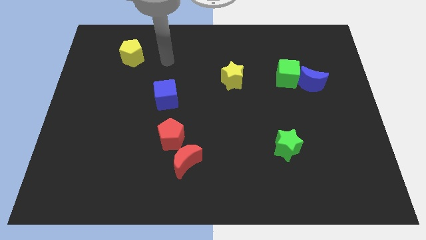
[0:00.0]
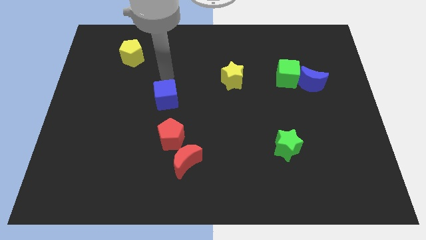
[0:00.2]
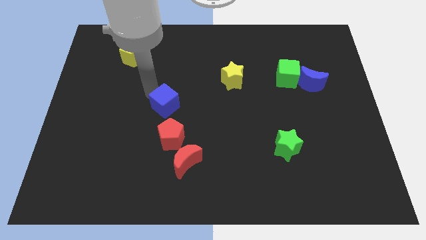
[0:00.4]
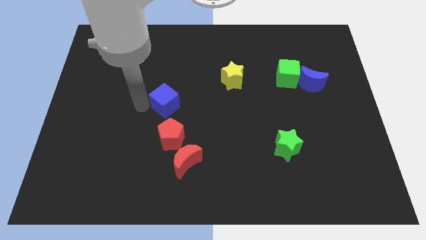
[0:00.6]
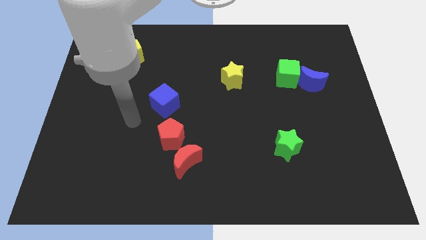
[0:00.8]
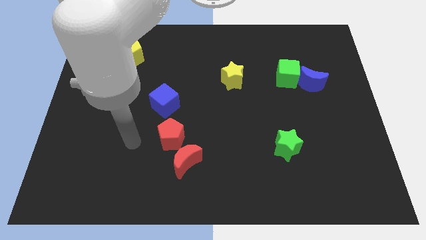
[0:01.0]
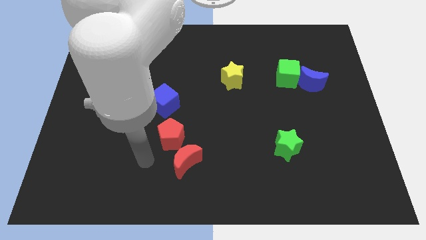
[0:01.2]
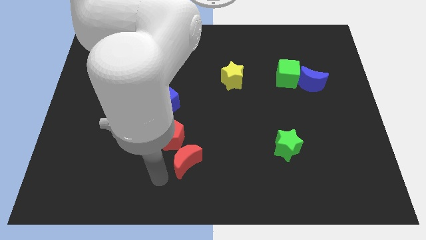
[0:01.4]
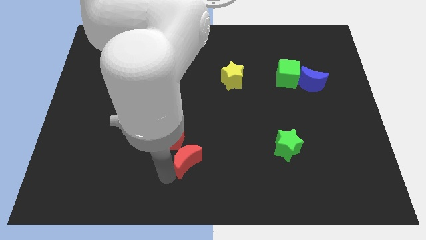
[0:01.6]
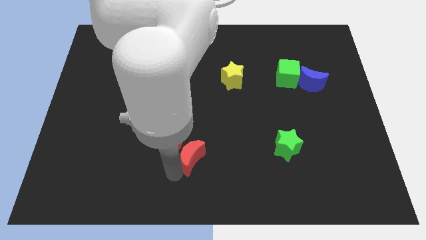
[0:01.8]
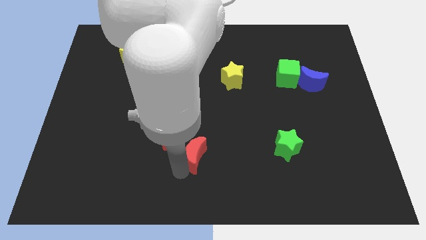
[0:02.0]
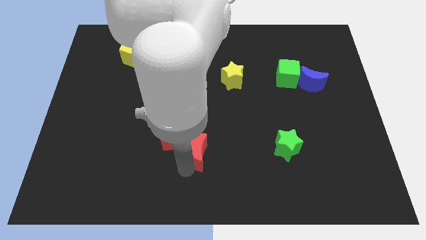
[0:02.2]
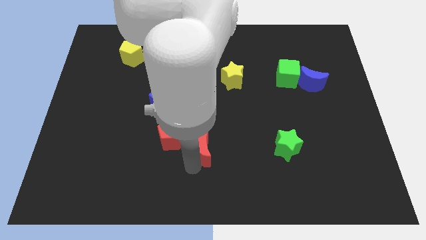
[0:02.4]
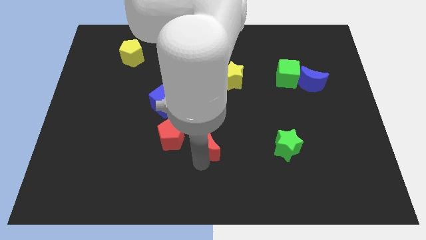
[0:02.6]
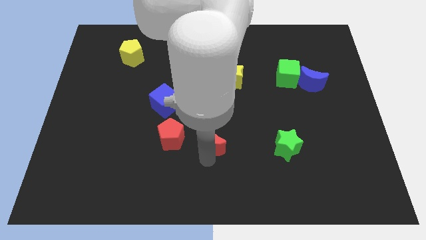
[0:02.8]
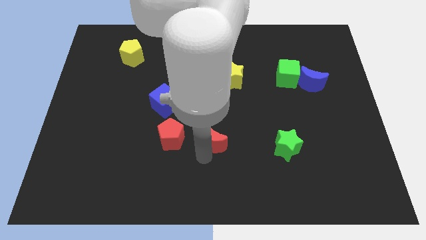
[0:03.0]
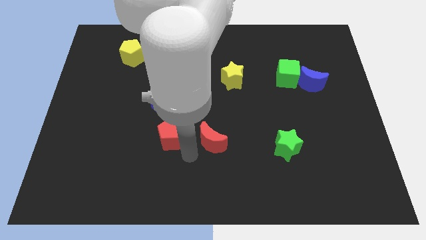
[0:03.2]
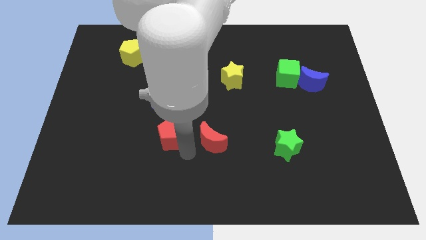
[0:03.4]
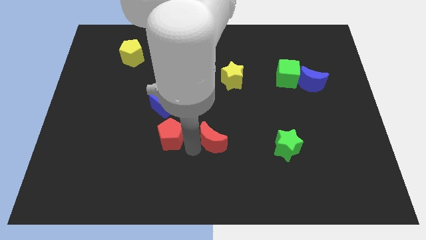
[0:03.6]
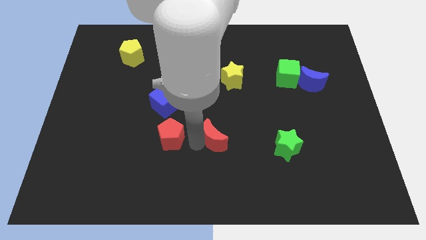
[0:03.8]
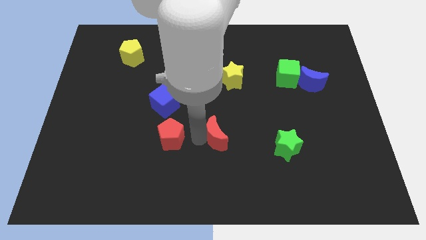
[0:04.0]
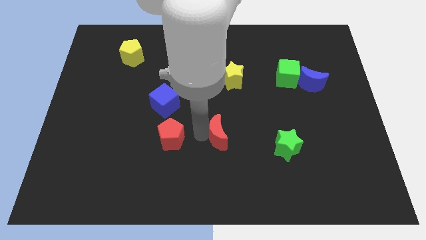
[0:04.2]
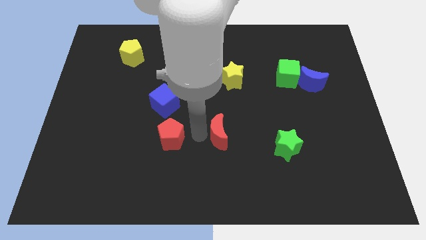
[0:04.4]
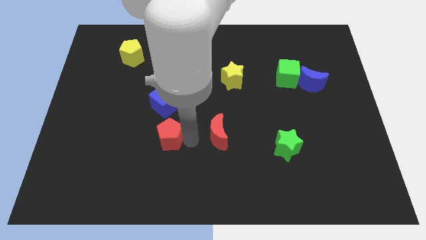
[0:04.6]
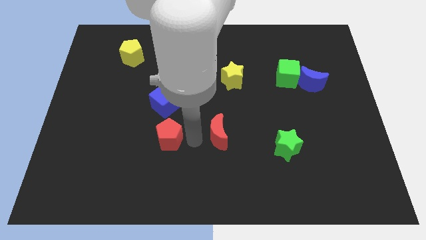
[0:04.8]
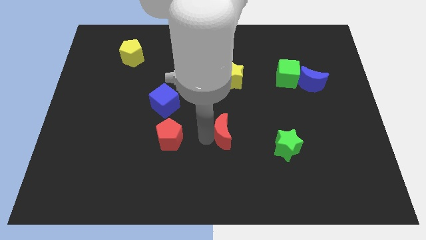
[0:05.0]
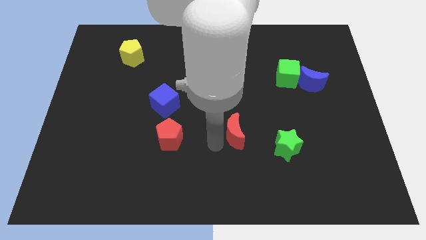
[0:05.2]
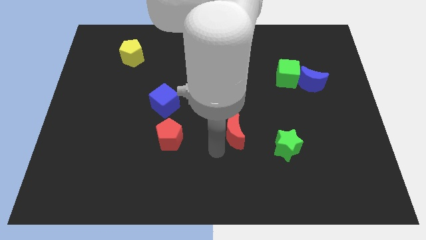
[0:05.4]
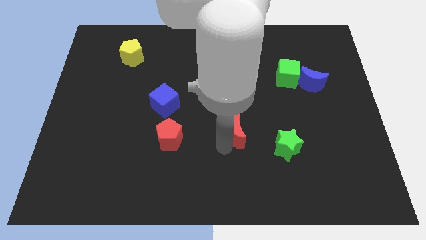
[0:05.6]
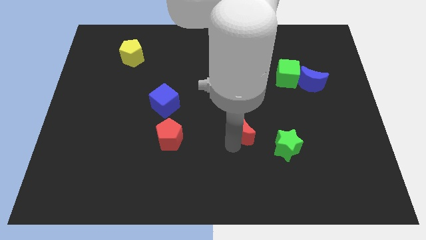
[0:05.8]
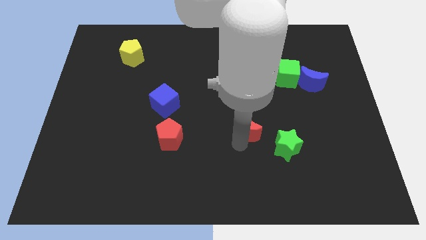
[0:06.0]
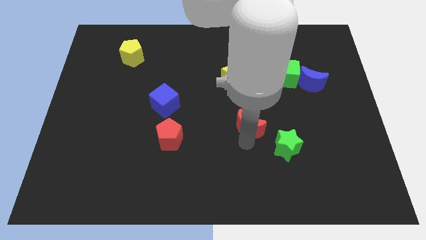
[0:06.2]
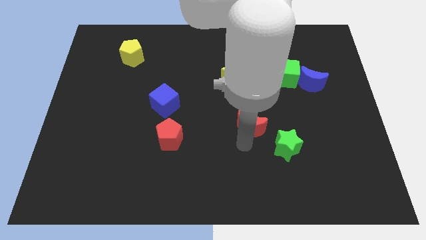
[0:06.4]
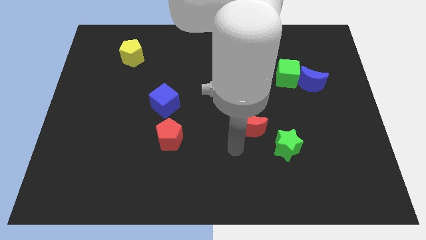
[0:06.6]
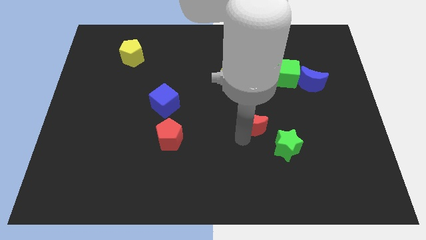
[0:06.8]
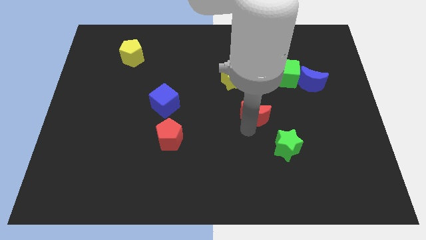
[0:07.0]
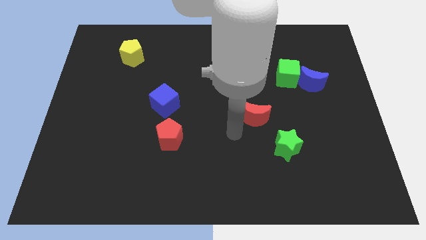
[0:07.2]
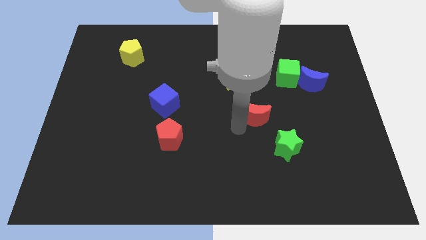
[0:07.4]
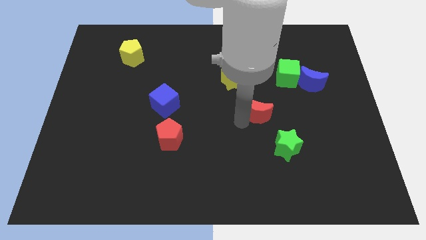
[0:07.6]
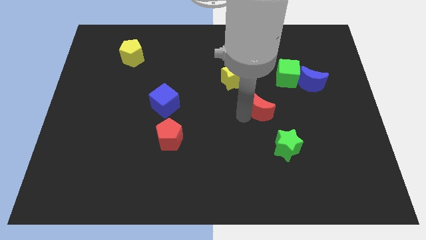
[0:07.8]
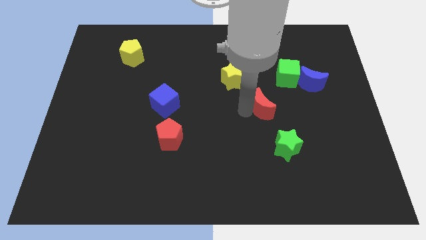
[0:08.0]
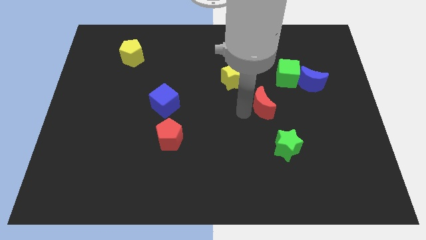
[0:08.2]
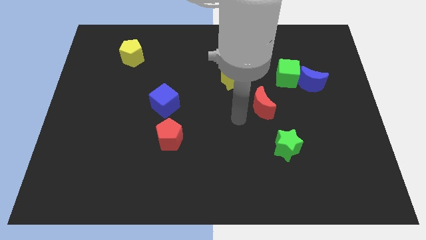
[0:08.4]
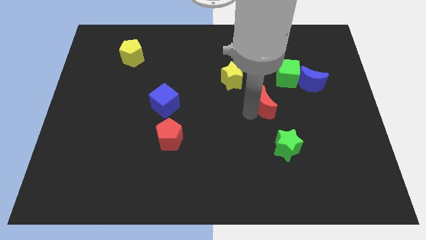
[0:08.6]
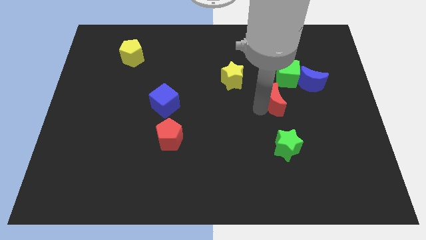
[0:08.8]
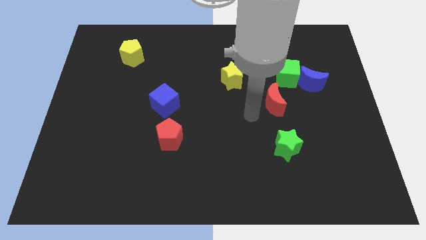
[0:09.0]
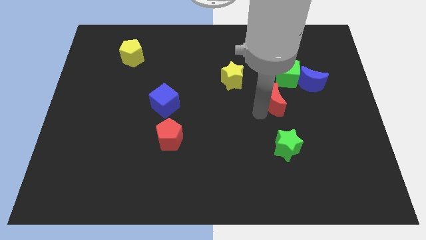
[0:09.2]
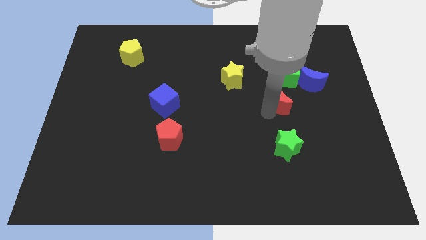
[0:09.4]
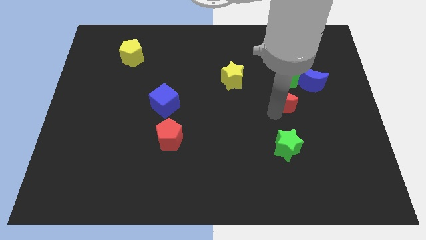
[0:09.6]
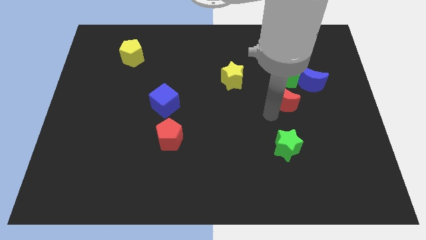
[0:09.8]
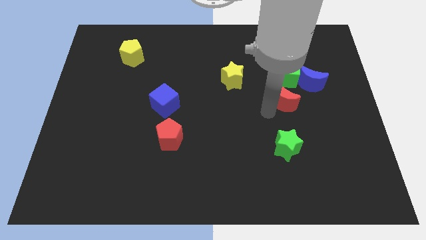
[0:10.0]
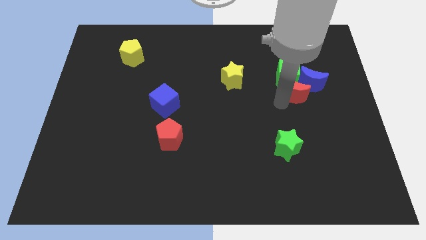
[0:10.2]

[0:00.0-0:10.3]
put the red moon to the blue moon

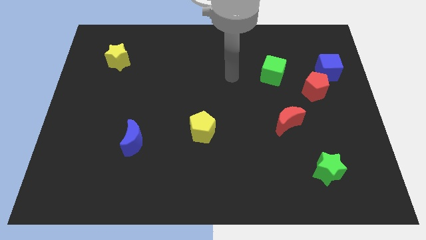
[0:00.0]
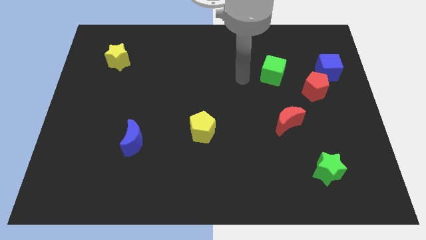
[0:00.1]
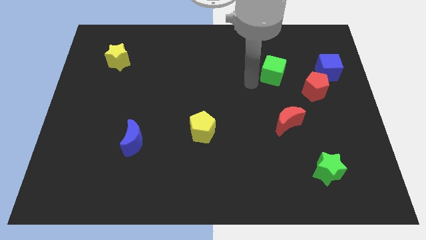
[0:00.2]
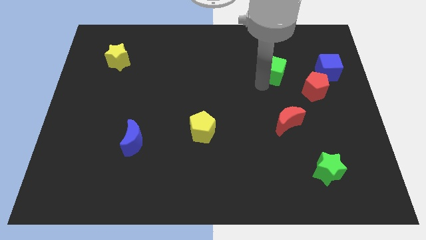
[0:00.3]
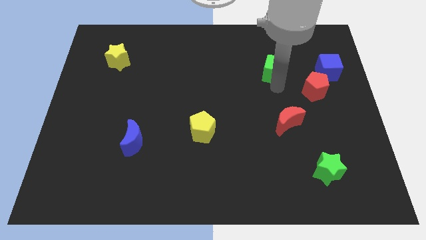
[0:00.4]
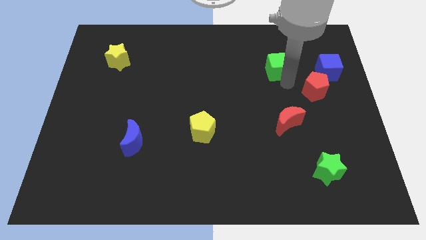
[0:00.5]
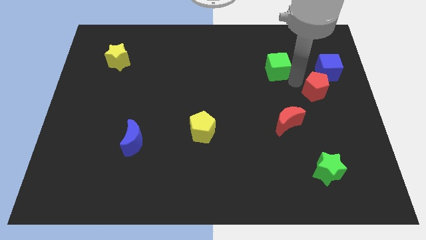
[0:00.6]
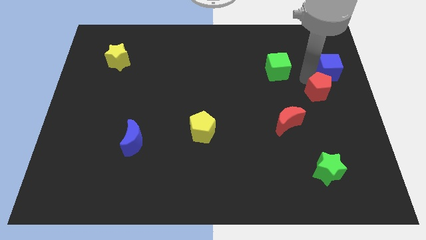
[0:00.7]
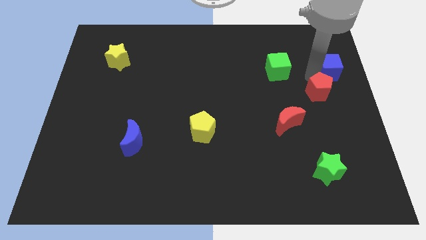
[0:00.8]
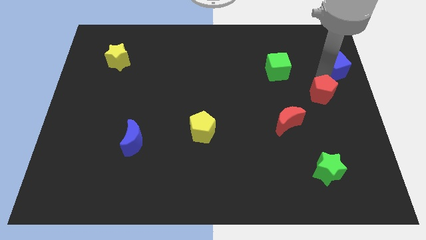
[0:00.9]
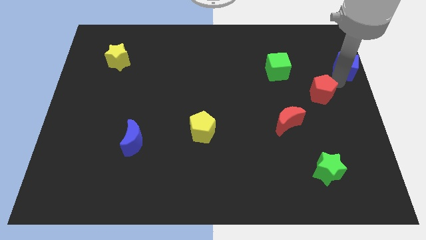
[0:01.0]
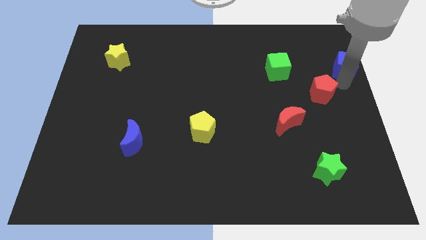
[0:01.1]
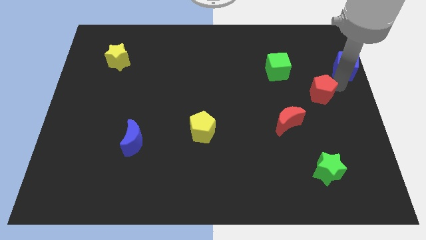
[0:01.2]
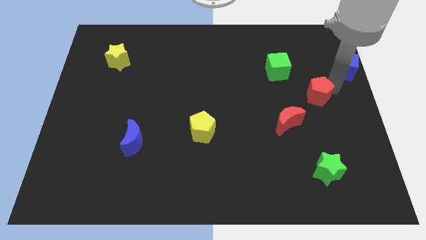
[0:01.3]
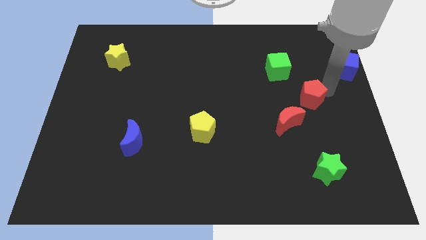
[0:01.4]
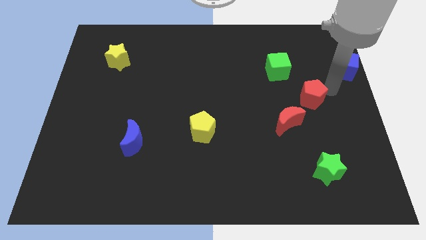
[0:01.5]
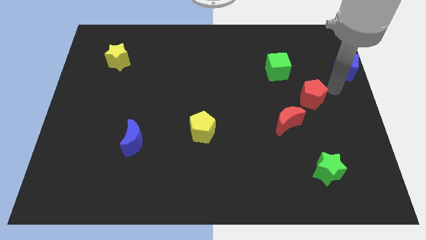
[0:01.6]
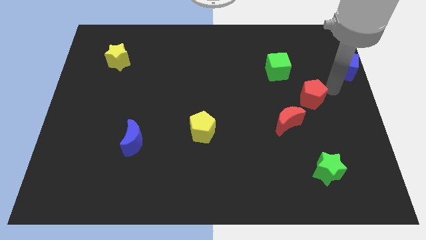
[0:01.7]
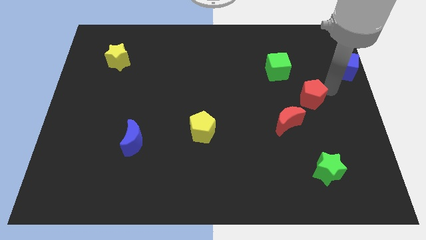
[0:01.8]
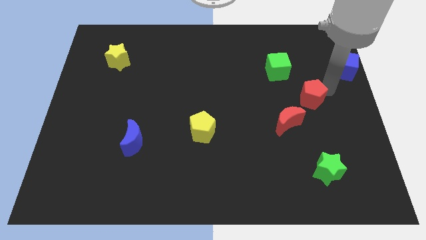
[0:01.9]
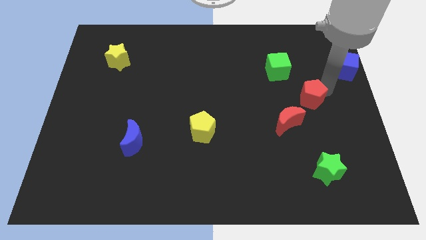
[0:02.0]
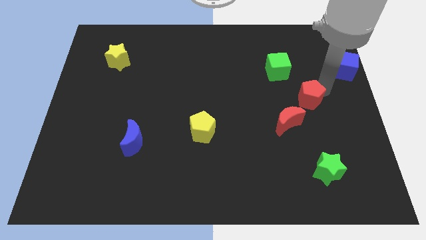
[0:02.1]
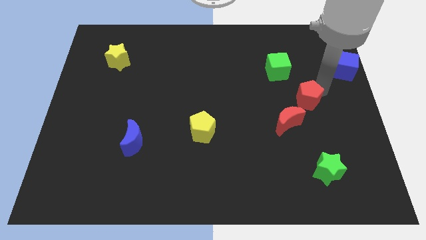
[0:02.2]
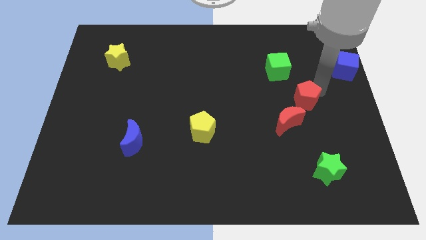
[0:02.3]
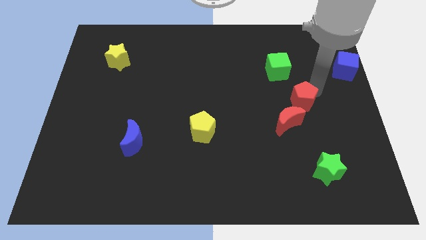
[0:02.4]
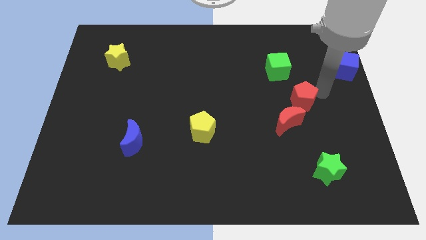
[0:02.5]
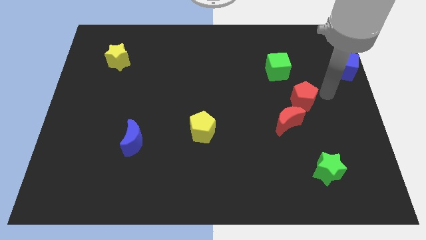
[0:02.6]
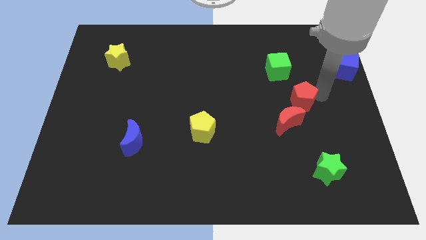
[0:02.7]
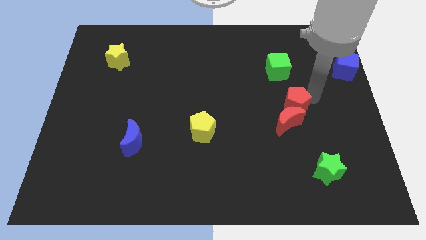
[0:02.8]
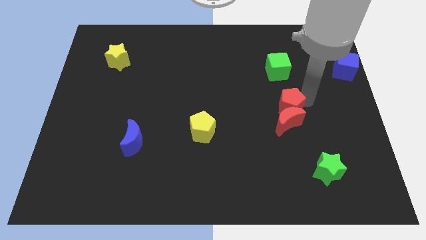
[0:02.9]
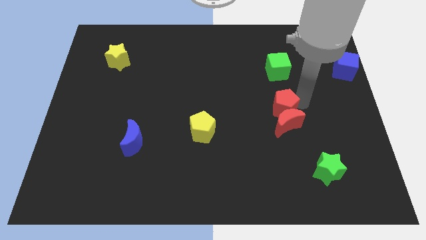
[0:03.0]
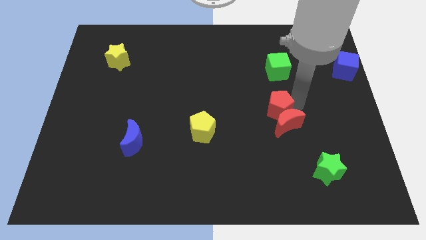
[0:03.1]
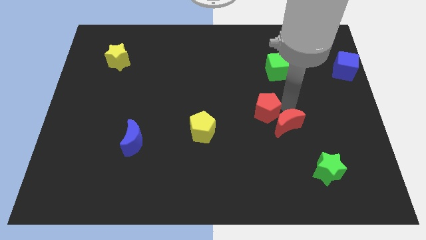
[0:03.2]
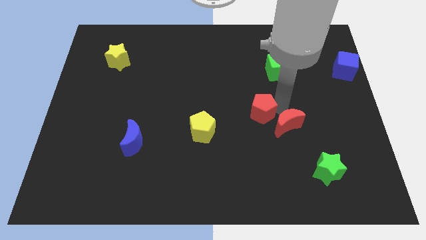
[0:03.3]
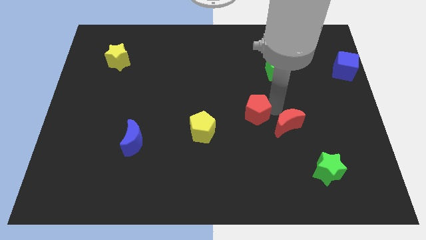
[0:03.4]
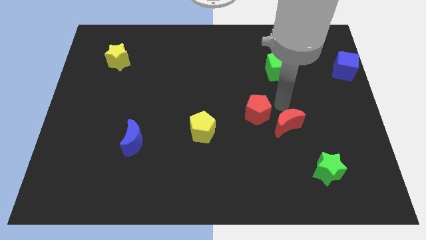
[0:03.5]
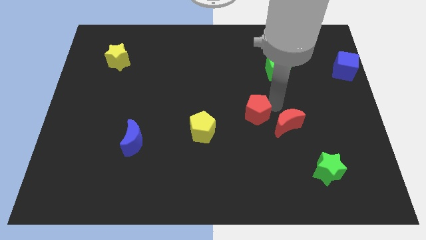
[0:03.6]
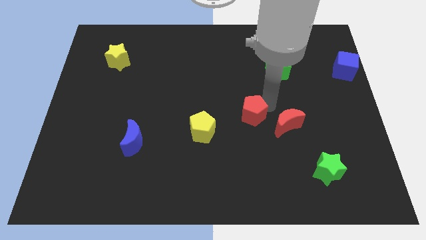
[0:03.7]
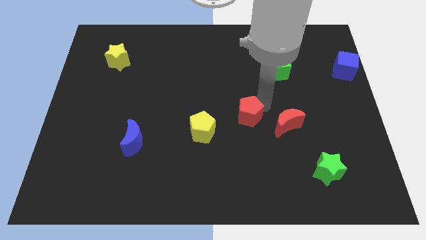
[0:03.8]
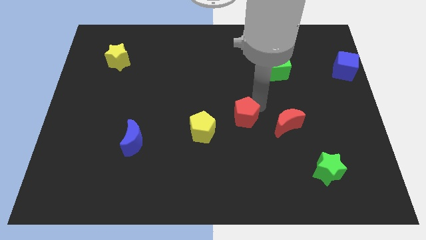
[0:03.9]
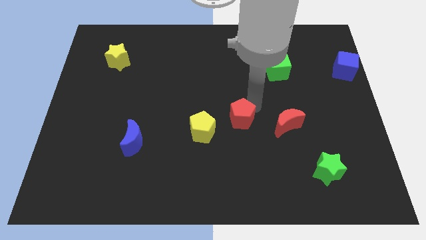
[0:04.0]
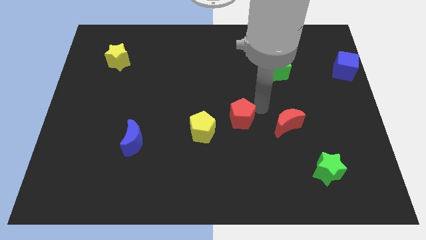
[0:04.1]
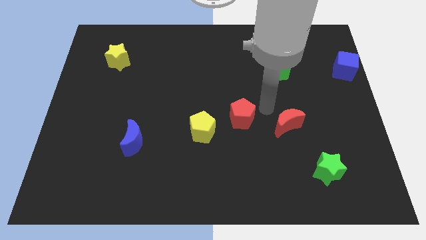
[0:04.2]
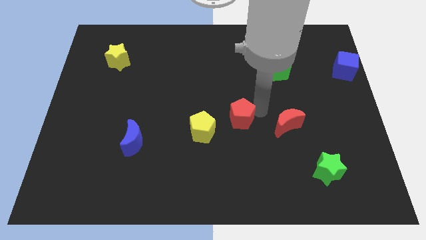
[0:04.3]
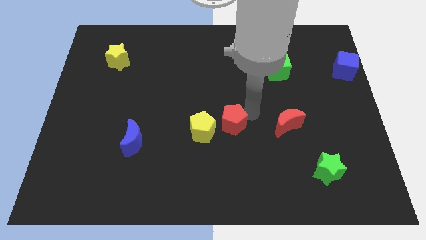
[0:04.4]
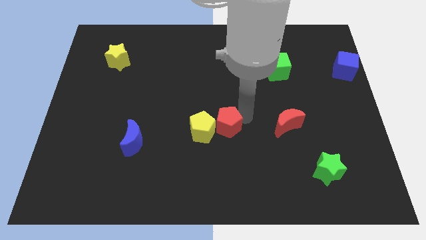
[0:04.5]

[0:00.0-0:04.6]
put the red pentagon towards the yellow pentagon
